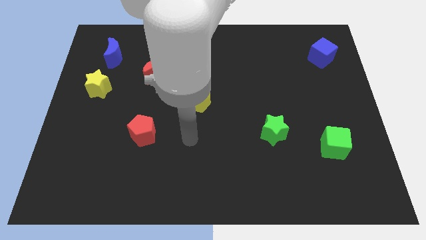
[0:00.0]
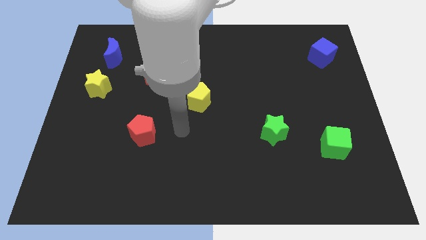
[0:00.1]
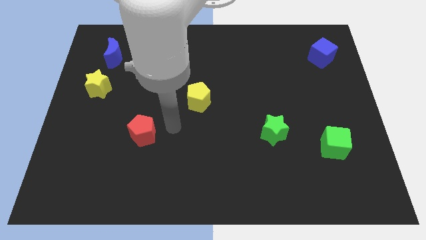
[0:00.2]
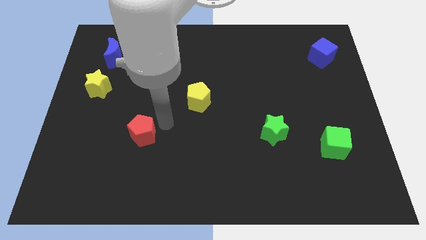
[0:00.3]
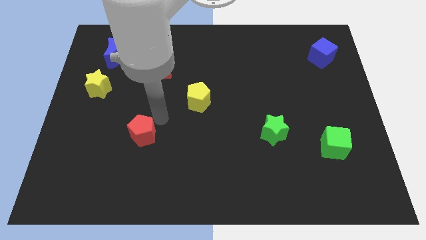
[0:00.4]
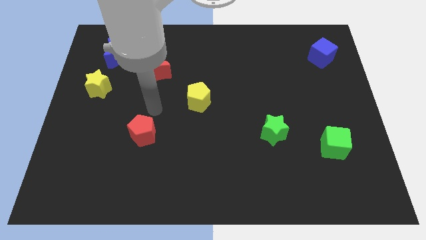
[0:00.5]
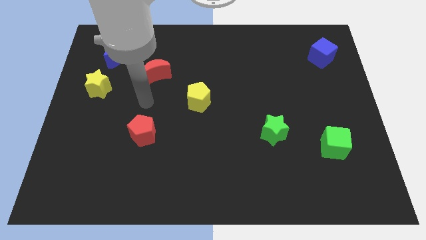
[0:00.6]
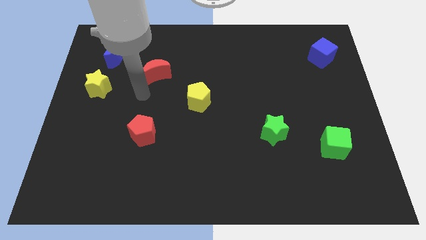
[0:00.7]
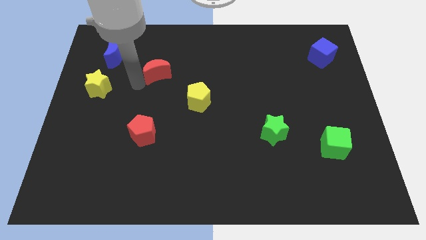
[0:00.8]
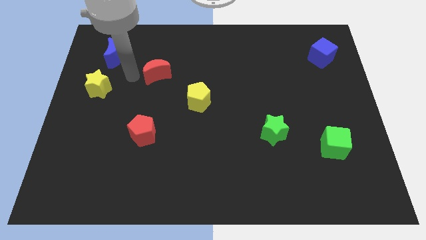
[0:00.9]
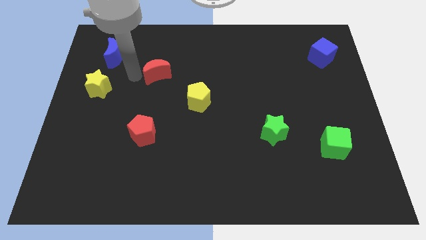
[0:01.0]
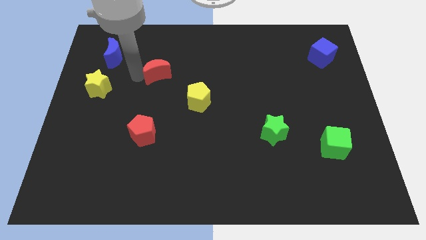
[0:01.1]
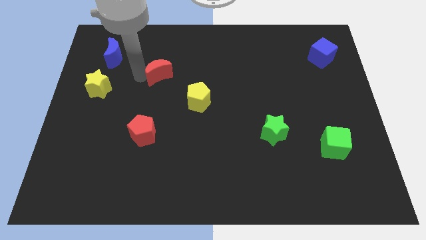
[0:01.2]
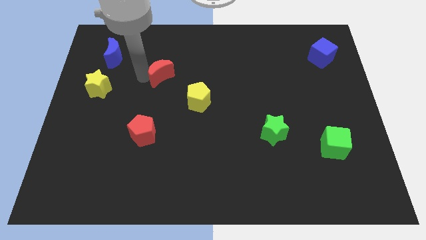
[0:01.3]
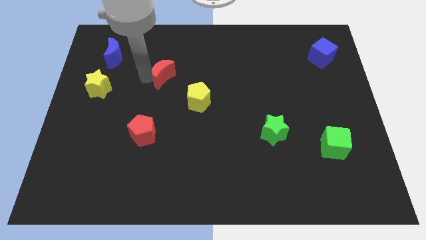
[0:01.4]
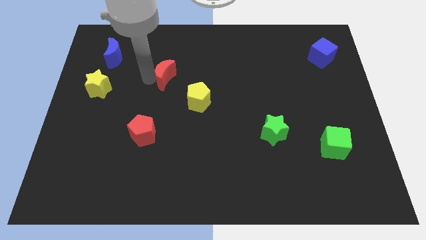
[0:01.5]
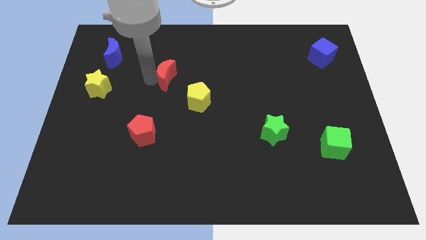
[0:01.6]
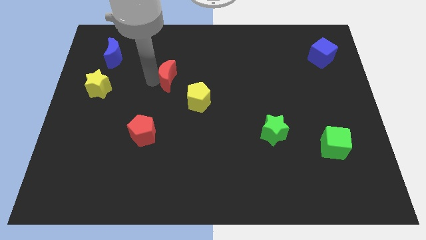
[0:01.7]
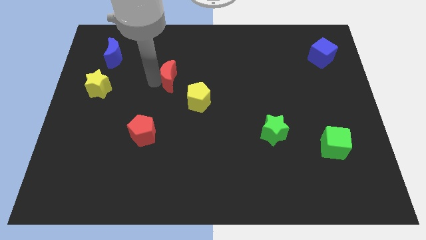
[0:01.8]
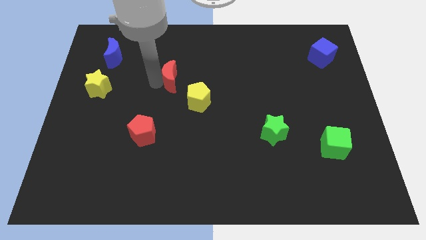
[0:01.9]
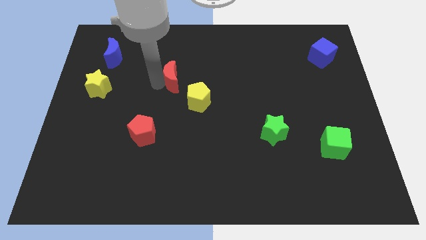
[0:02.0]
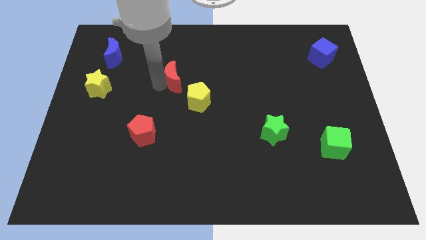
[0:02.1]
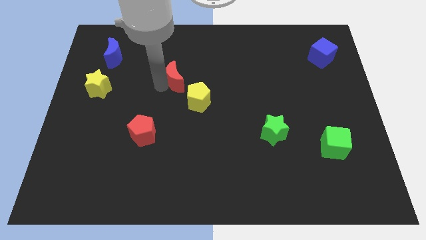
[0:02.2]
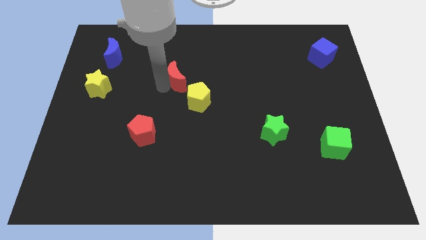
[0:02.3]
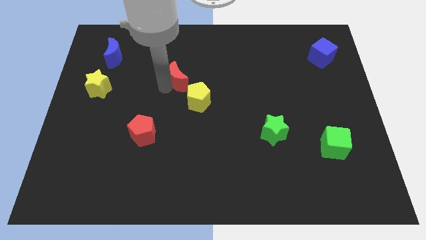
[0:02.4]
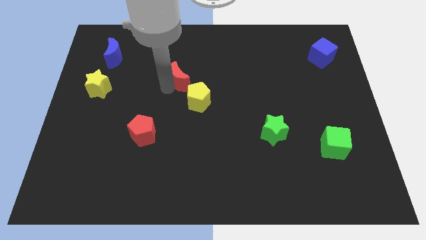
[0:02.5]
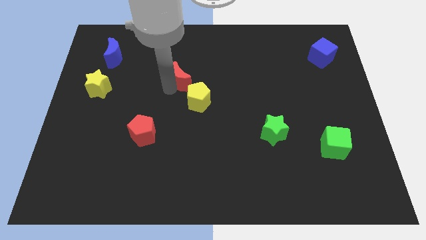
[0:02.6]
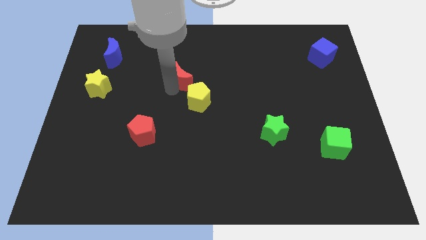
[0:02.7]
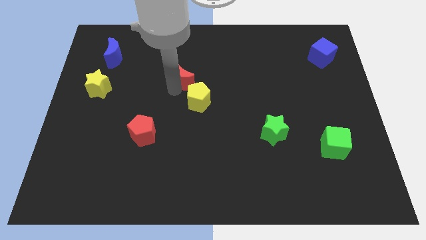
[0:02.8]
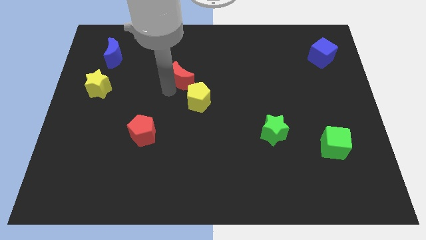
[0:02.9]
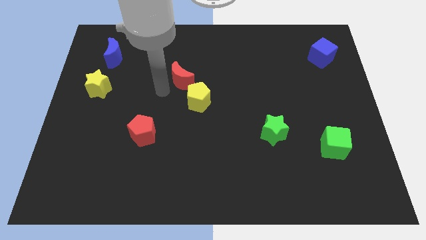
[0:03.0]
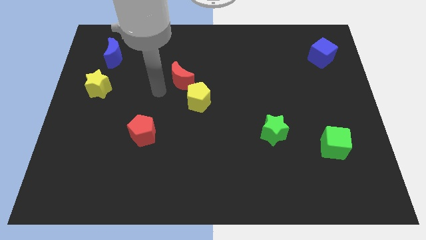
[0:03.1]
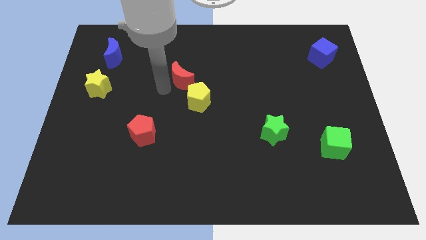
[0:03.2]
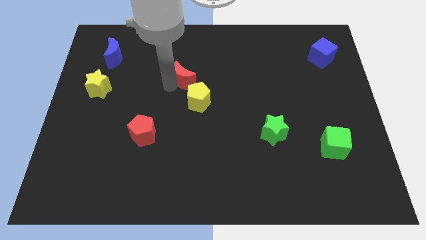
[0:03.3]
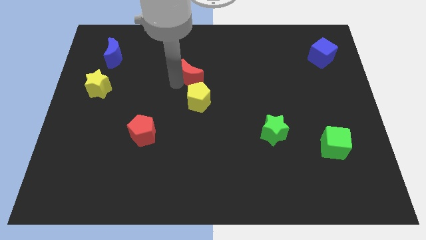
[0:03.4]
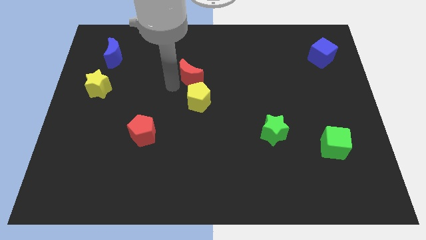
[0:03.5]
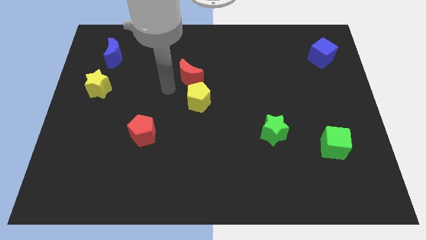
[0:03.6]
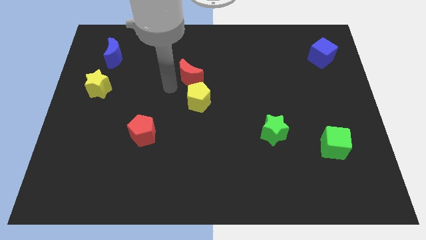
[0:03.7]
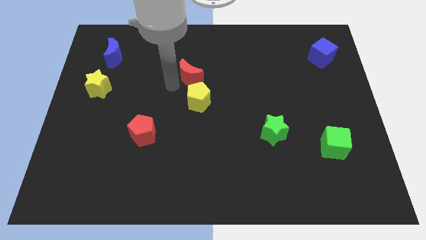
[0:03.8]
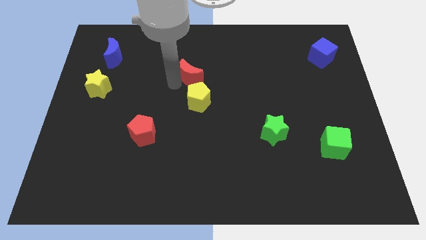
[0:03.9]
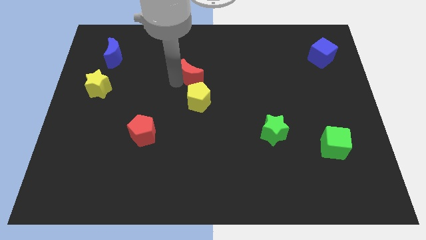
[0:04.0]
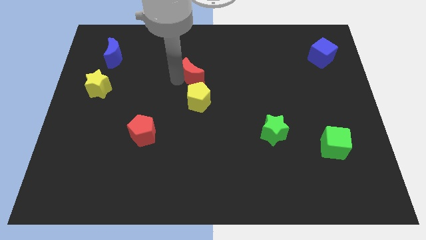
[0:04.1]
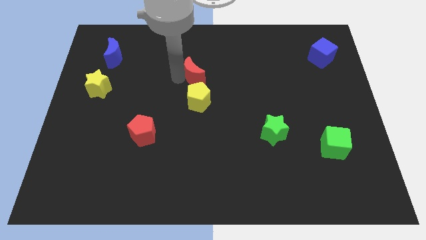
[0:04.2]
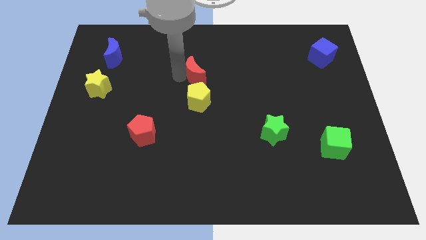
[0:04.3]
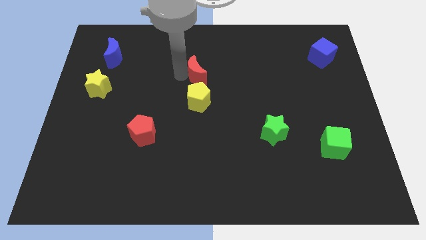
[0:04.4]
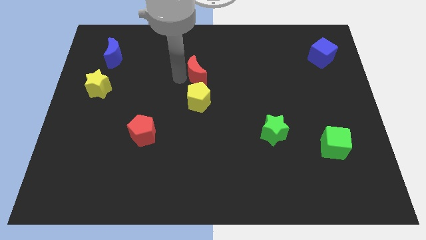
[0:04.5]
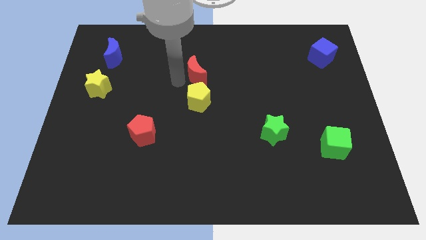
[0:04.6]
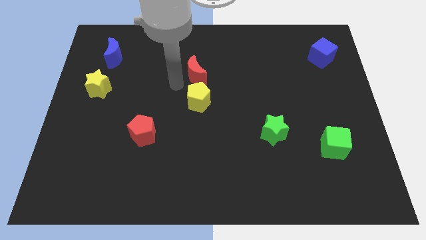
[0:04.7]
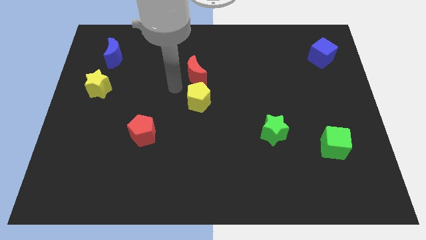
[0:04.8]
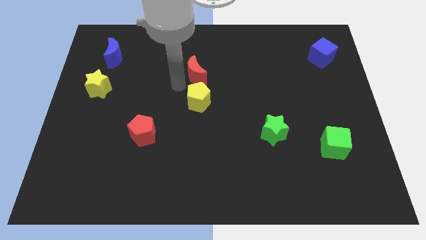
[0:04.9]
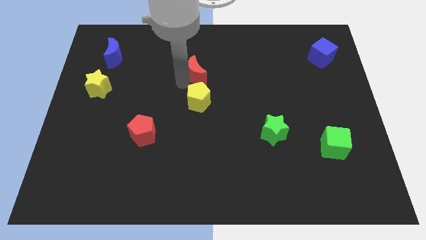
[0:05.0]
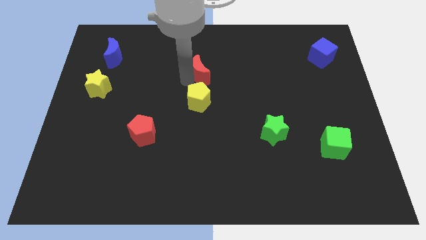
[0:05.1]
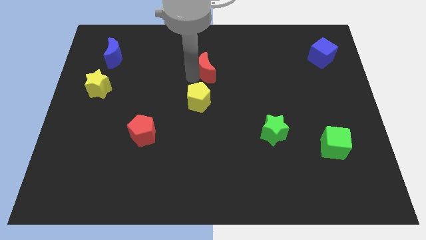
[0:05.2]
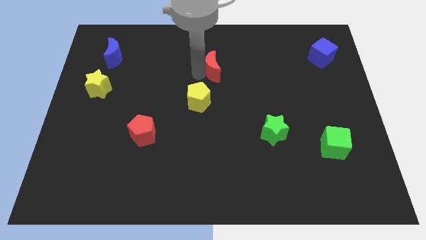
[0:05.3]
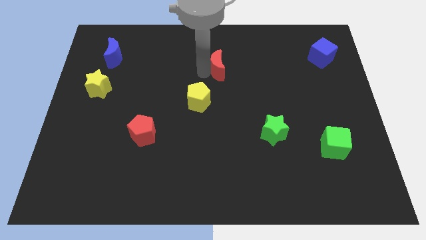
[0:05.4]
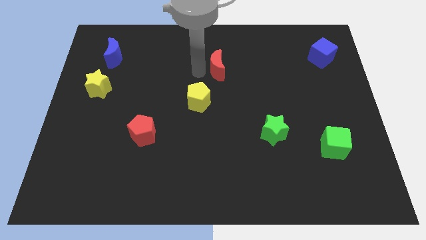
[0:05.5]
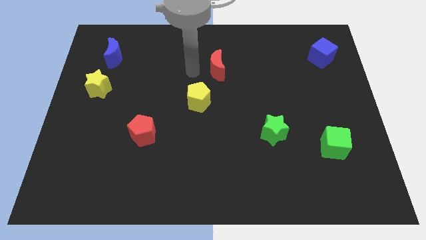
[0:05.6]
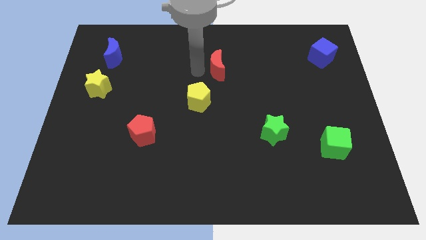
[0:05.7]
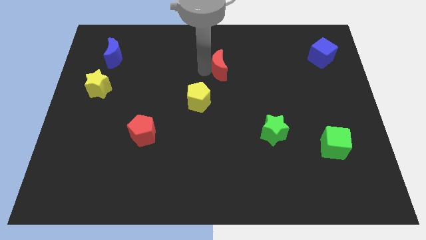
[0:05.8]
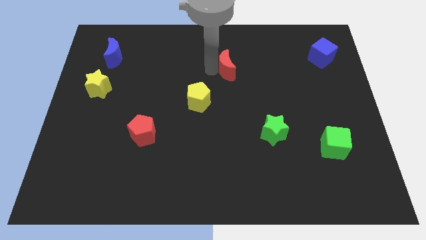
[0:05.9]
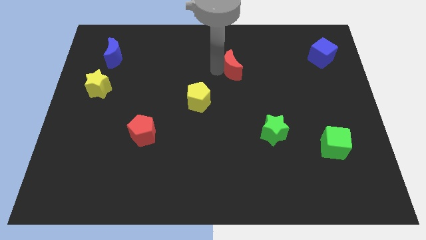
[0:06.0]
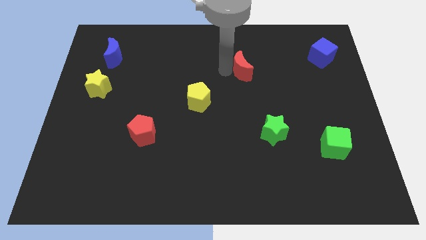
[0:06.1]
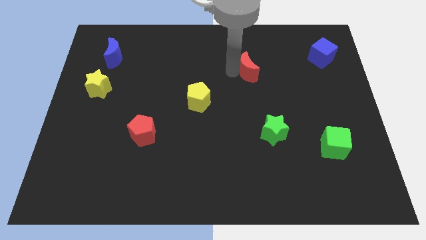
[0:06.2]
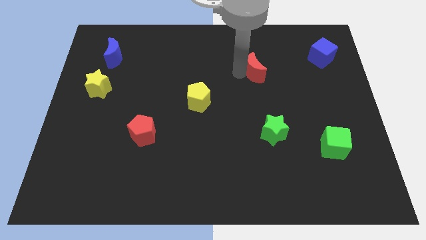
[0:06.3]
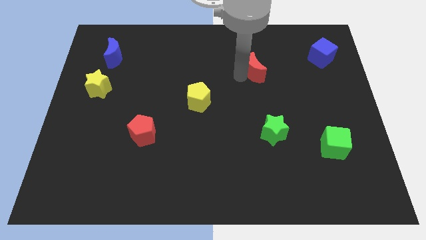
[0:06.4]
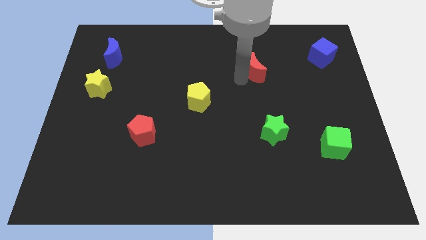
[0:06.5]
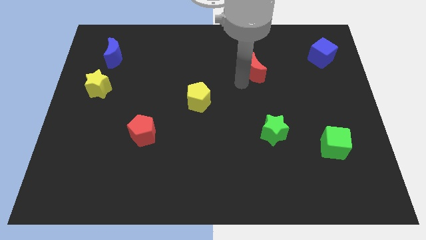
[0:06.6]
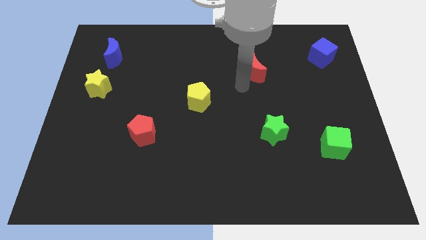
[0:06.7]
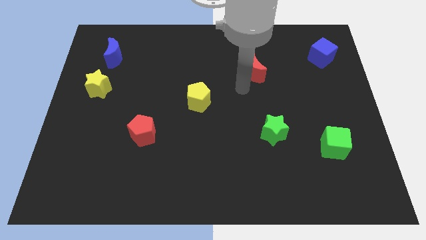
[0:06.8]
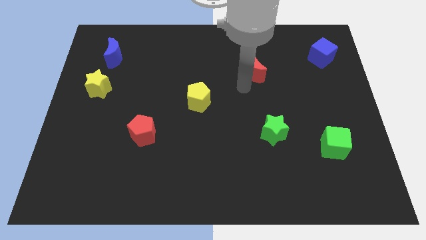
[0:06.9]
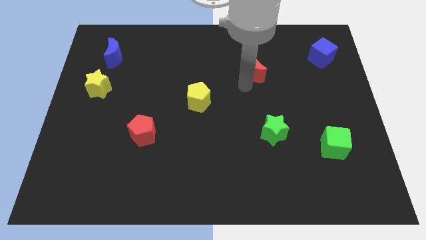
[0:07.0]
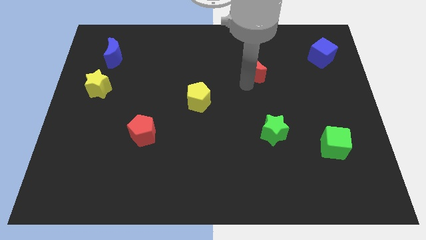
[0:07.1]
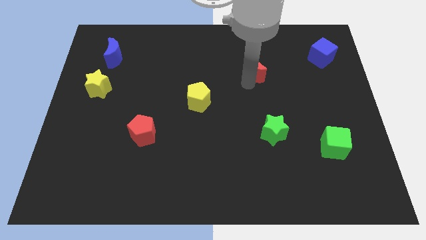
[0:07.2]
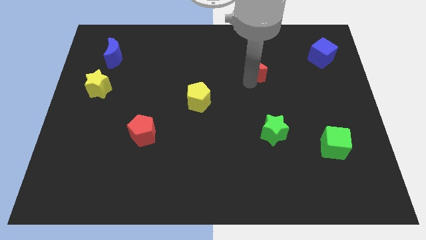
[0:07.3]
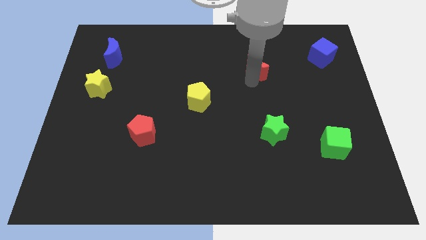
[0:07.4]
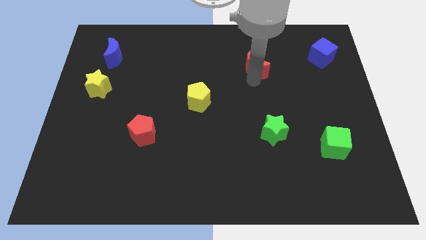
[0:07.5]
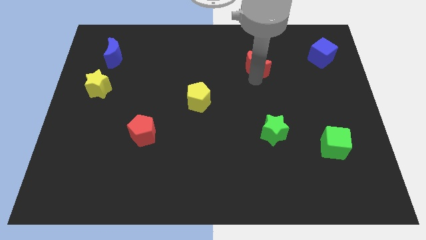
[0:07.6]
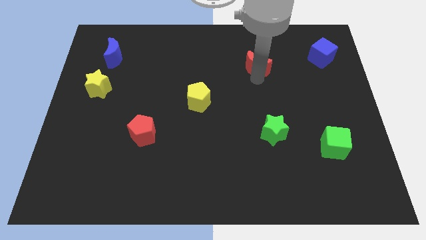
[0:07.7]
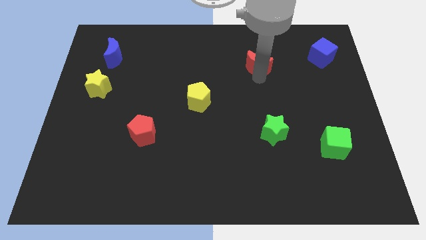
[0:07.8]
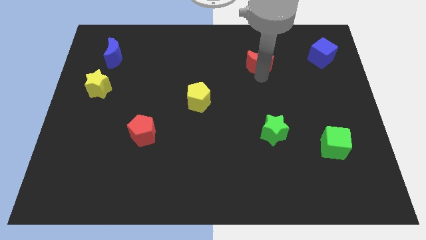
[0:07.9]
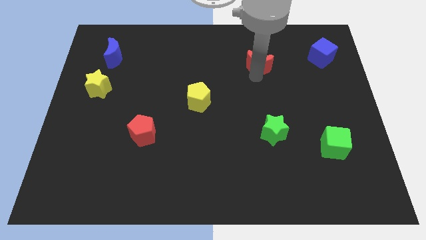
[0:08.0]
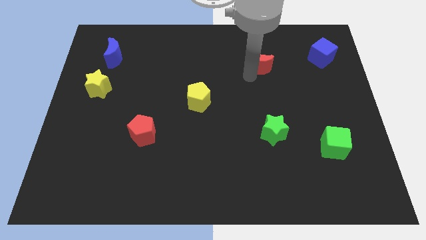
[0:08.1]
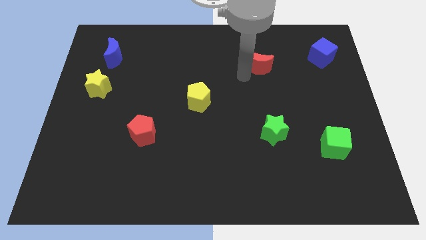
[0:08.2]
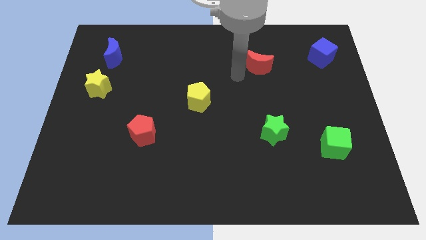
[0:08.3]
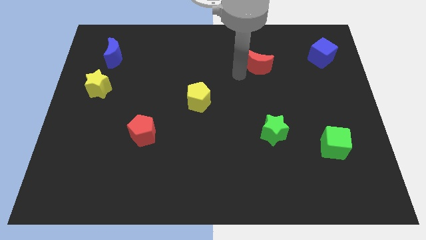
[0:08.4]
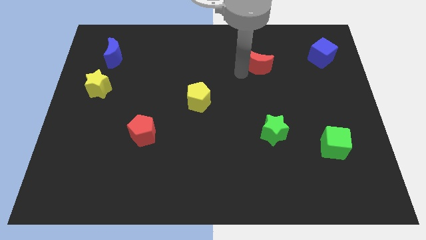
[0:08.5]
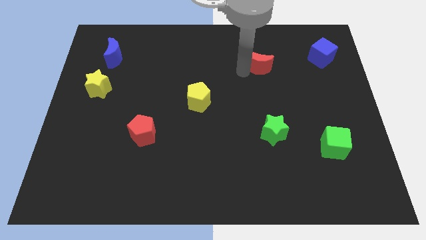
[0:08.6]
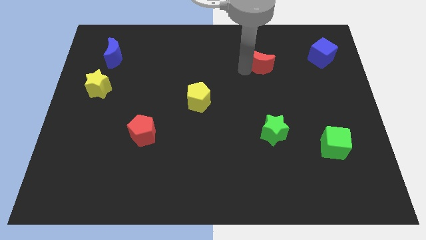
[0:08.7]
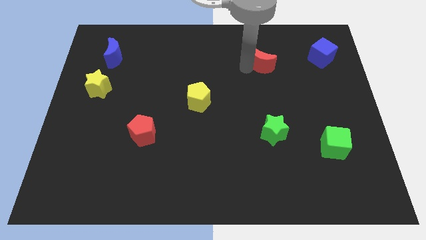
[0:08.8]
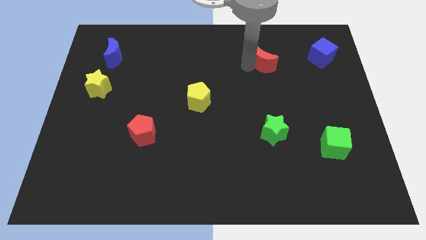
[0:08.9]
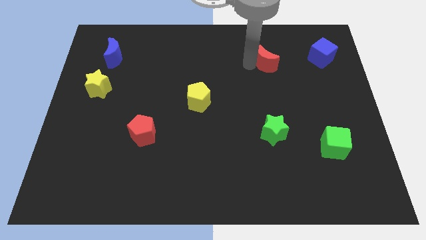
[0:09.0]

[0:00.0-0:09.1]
put the red moon left of the blue cube
